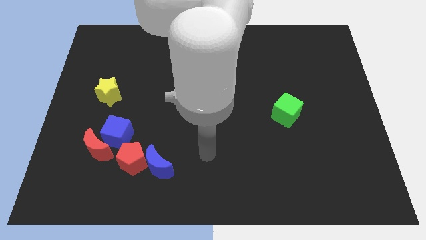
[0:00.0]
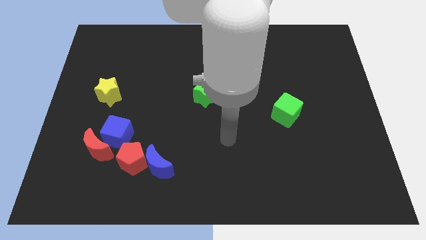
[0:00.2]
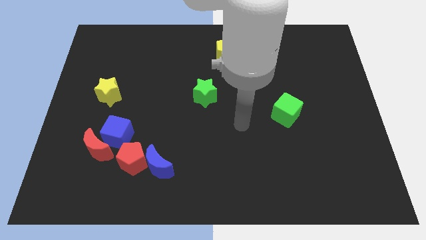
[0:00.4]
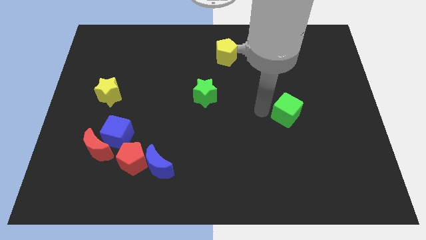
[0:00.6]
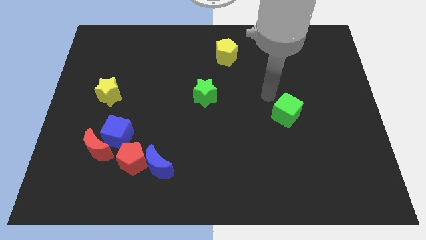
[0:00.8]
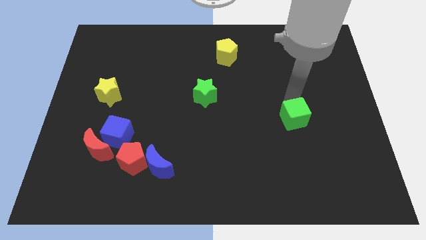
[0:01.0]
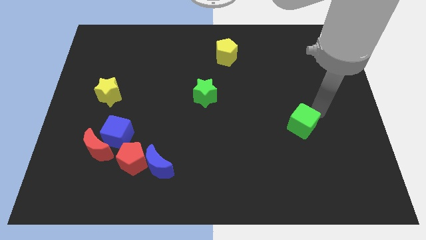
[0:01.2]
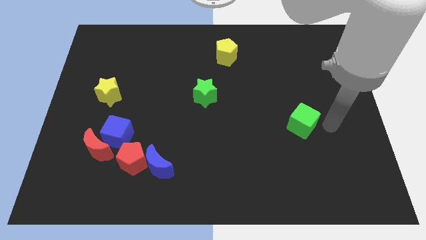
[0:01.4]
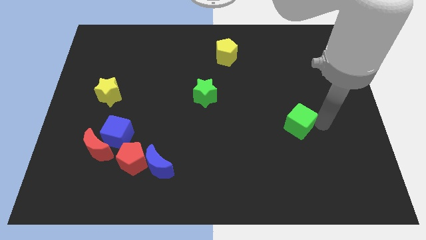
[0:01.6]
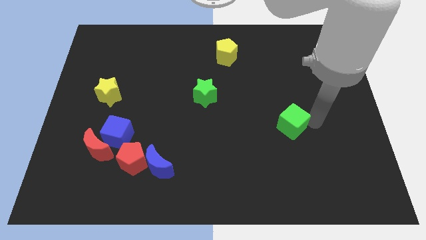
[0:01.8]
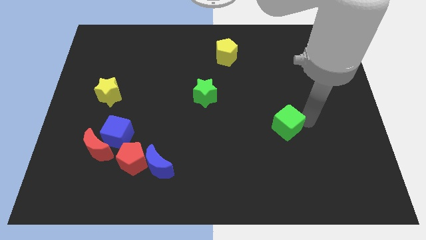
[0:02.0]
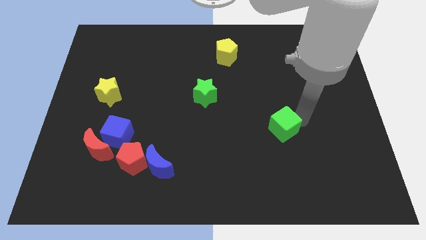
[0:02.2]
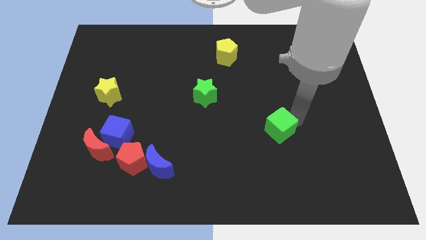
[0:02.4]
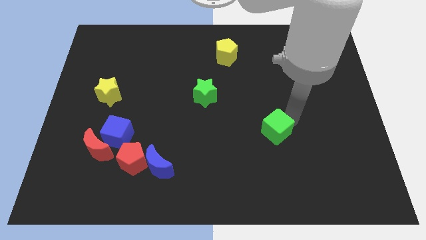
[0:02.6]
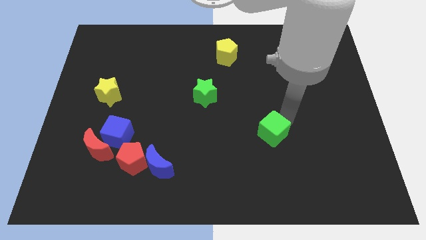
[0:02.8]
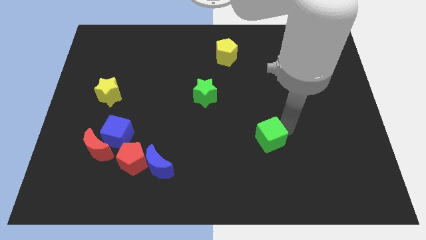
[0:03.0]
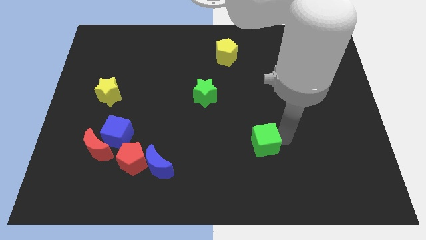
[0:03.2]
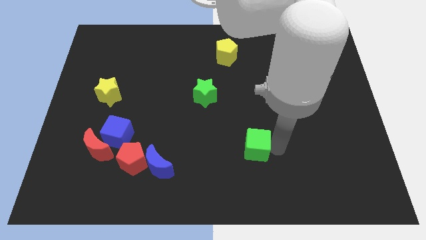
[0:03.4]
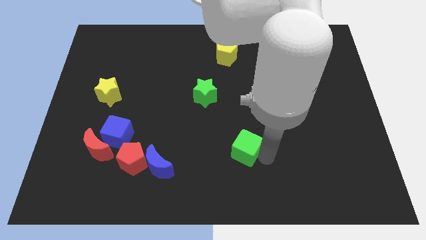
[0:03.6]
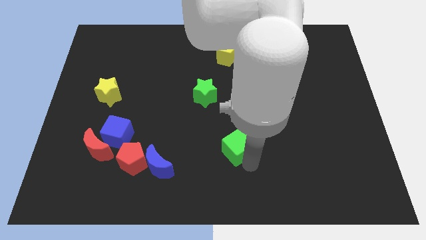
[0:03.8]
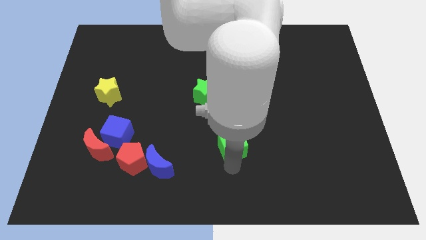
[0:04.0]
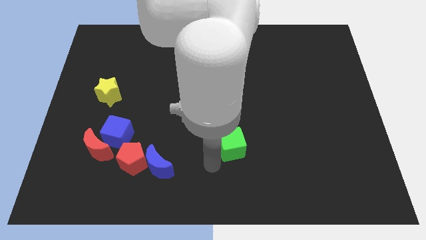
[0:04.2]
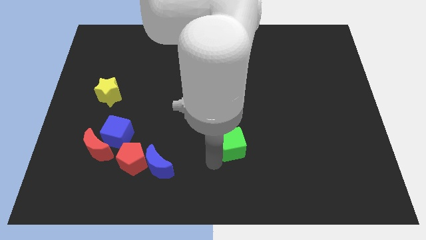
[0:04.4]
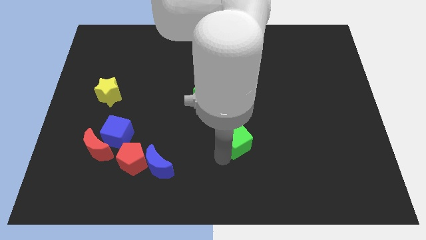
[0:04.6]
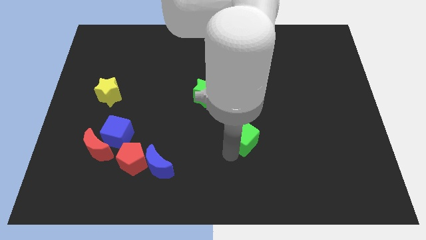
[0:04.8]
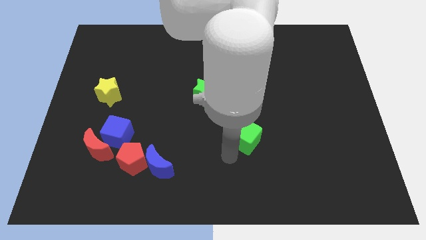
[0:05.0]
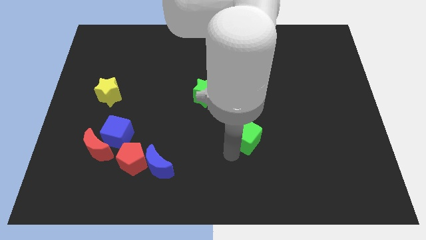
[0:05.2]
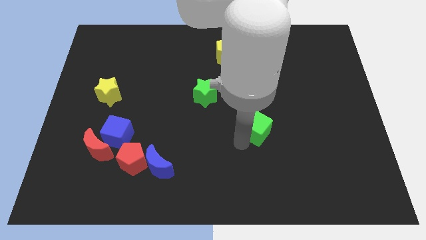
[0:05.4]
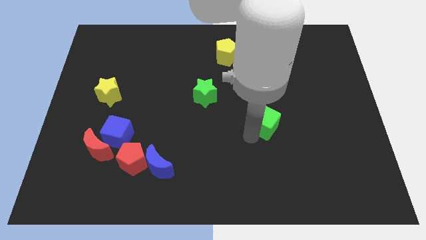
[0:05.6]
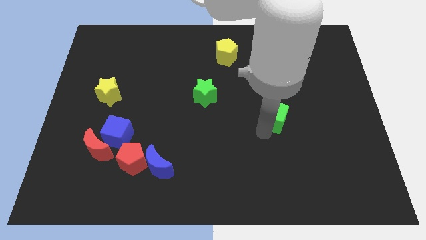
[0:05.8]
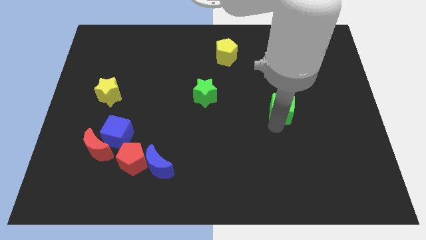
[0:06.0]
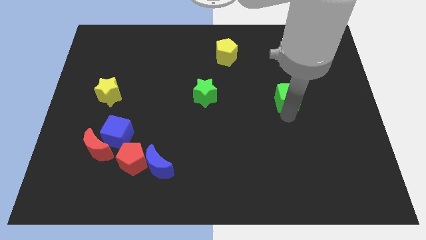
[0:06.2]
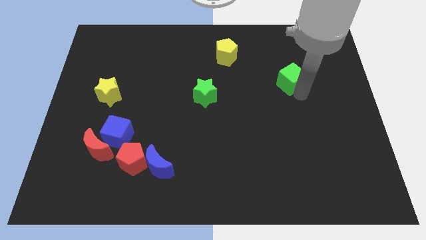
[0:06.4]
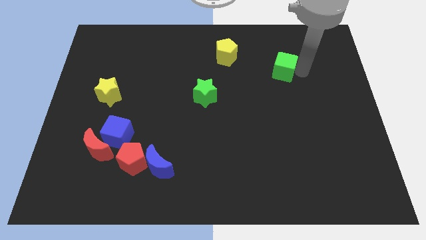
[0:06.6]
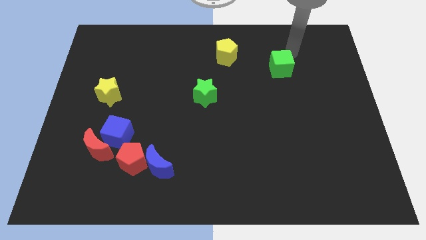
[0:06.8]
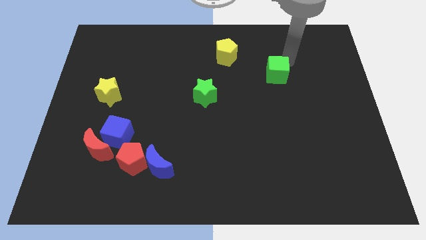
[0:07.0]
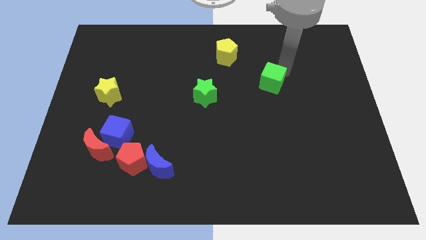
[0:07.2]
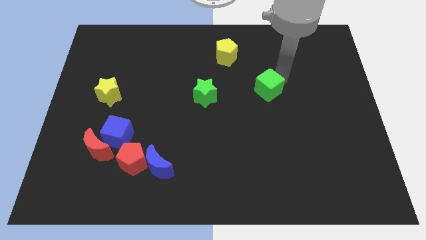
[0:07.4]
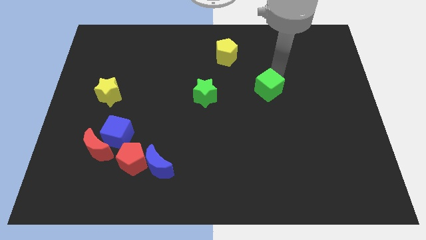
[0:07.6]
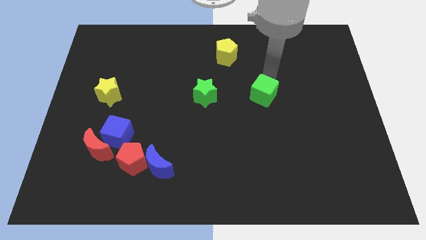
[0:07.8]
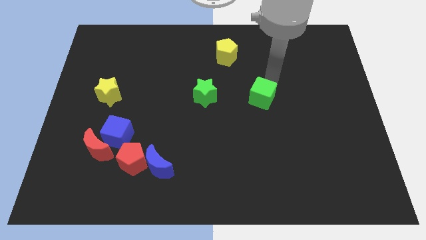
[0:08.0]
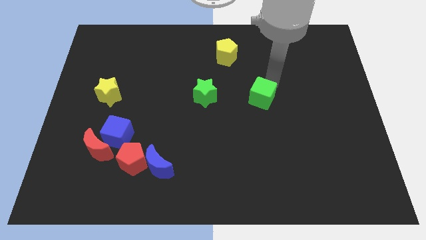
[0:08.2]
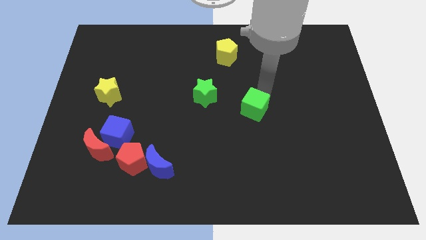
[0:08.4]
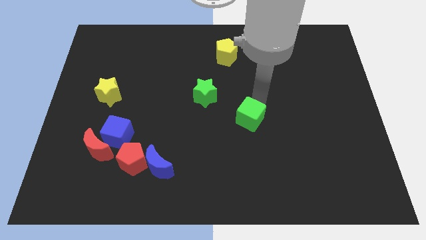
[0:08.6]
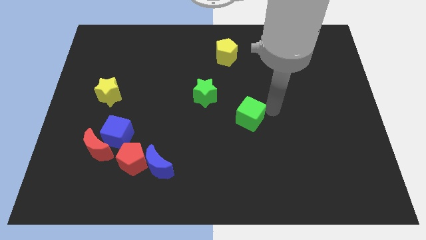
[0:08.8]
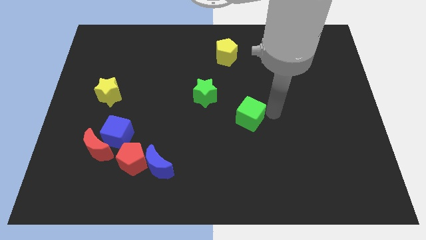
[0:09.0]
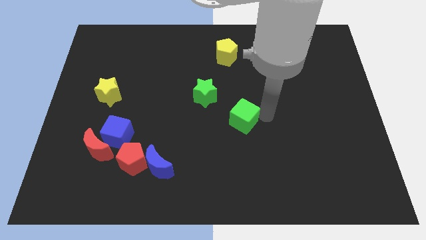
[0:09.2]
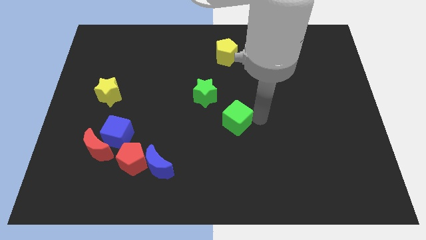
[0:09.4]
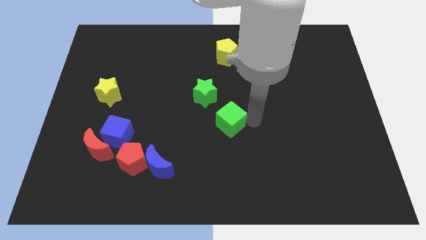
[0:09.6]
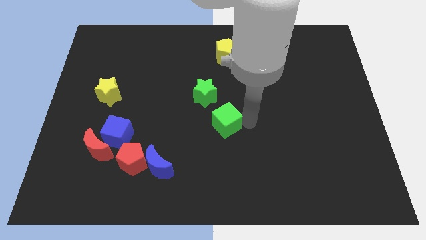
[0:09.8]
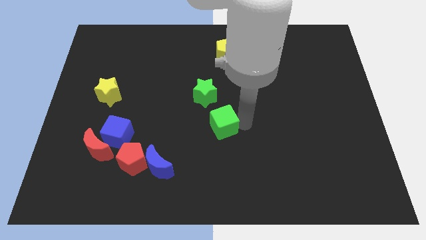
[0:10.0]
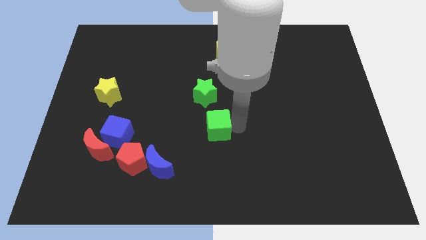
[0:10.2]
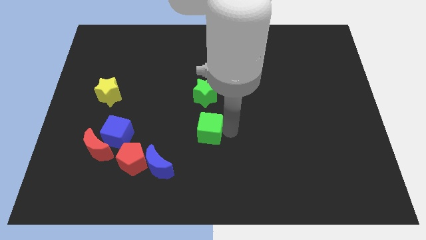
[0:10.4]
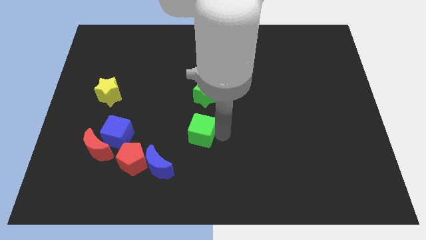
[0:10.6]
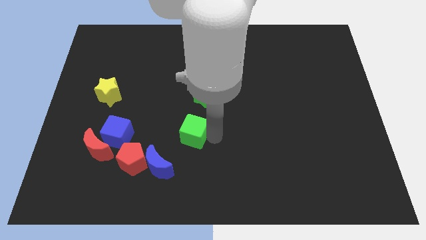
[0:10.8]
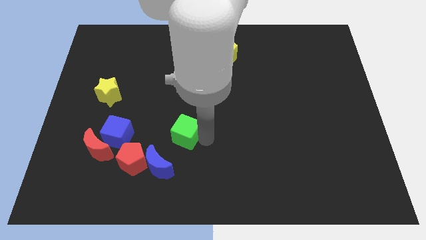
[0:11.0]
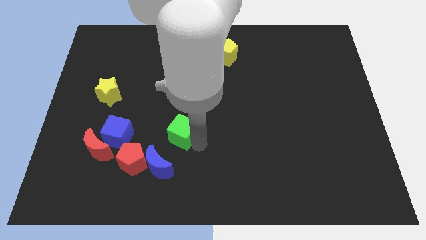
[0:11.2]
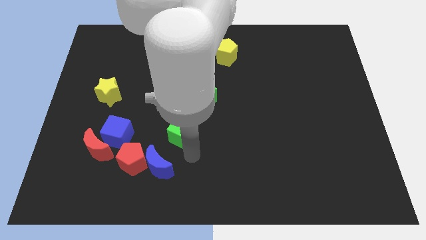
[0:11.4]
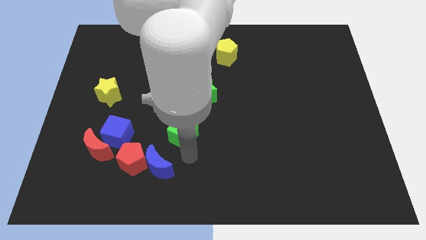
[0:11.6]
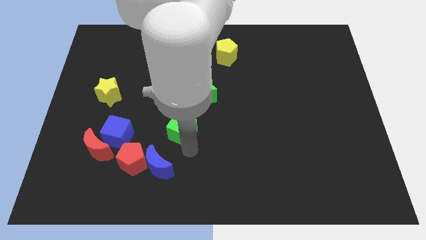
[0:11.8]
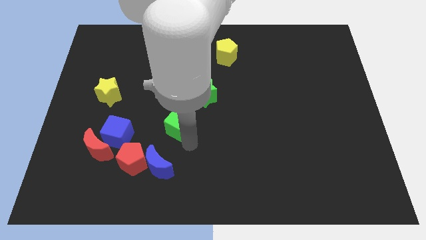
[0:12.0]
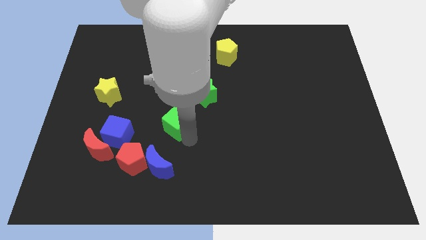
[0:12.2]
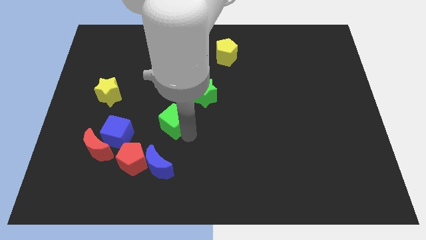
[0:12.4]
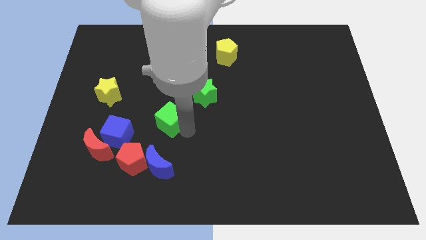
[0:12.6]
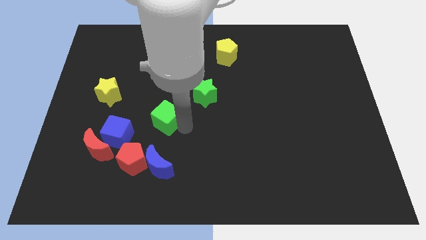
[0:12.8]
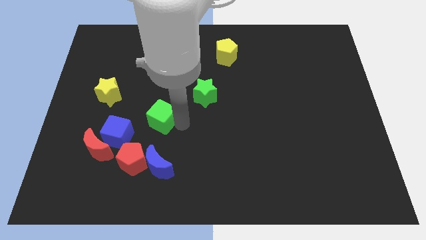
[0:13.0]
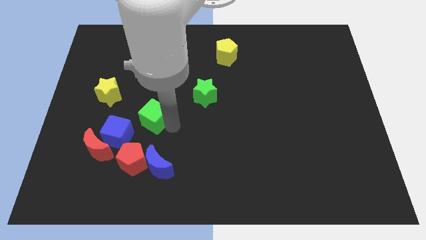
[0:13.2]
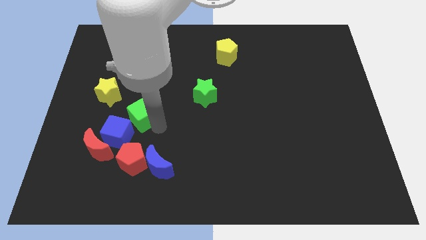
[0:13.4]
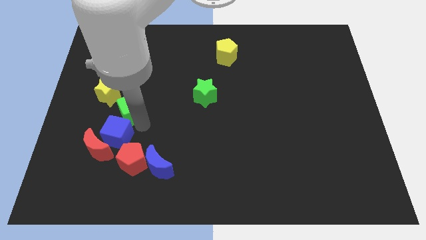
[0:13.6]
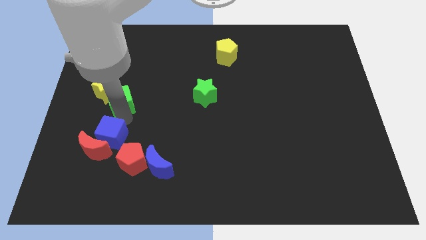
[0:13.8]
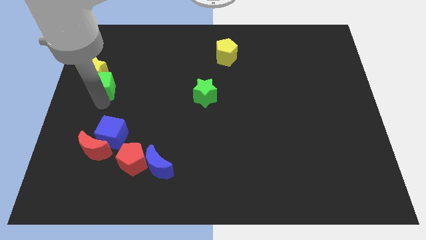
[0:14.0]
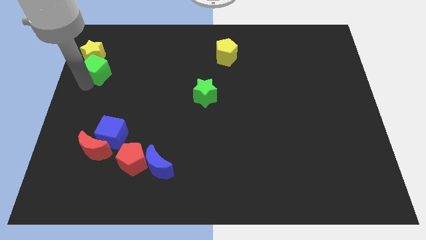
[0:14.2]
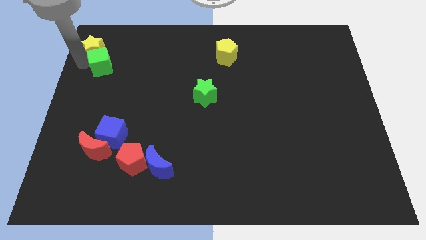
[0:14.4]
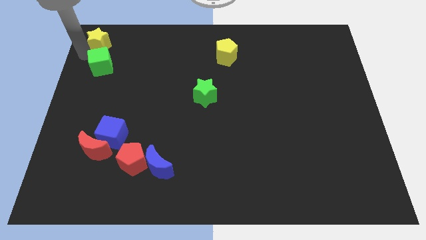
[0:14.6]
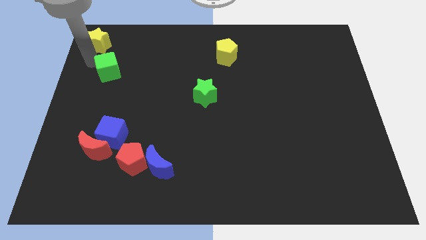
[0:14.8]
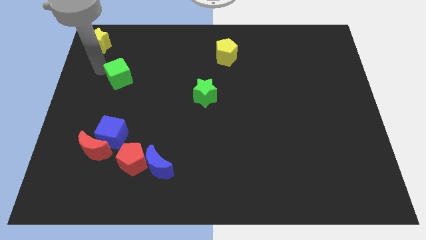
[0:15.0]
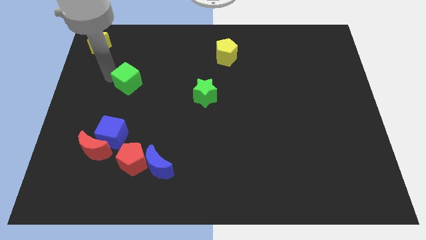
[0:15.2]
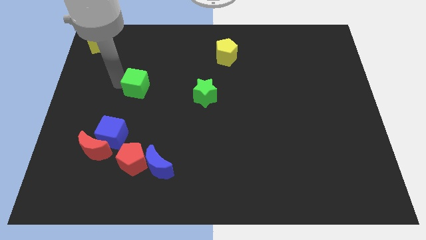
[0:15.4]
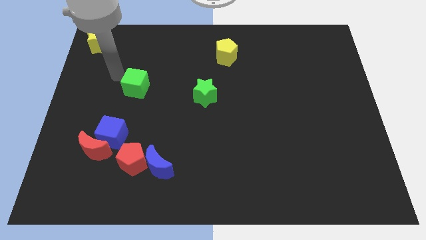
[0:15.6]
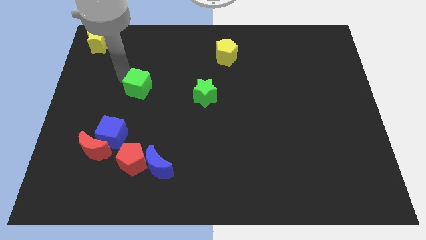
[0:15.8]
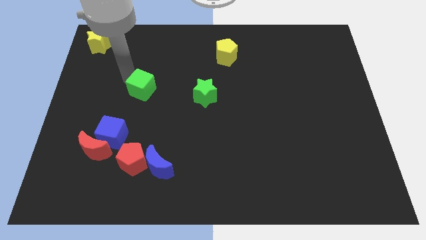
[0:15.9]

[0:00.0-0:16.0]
put the green cube to the left side of the green star
